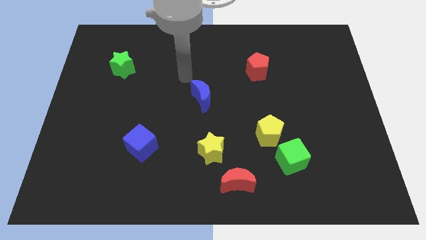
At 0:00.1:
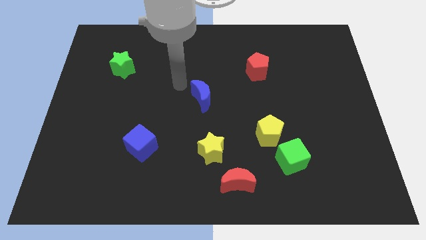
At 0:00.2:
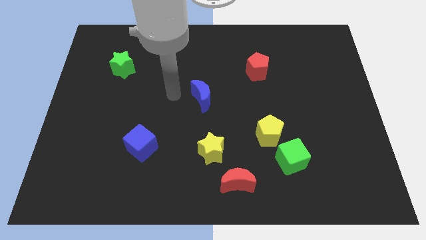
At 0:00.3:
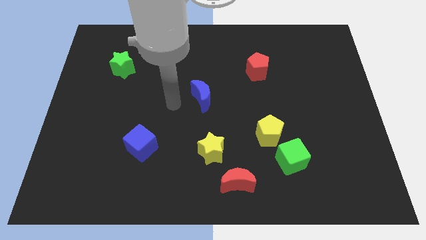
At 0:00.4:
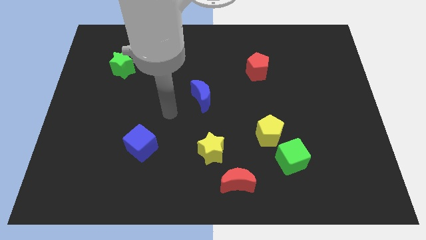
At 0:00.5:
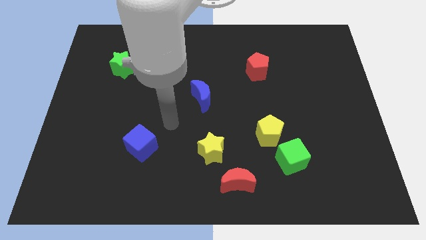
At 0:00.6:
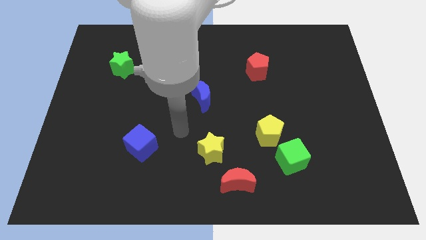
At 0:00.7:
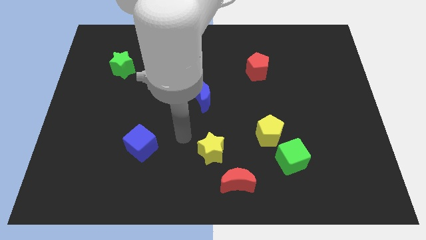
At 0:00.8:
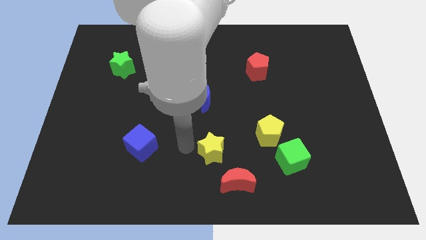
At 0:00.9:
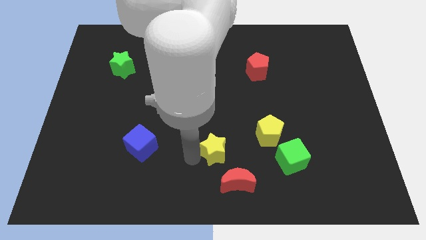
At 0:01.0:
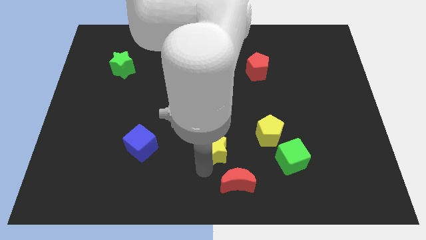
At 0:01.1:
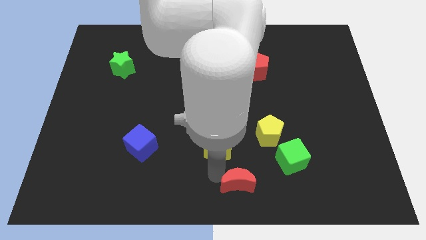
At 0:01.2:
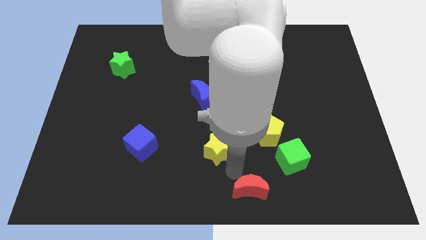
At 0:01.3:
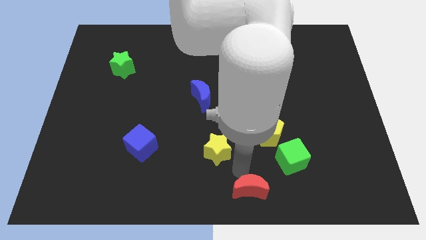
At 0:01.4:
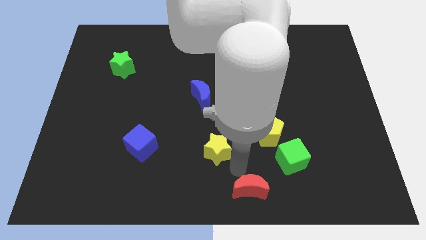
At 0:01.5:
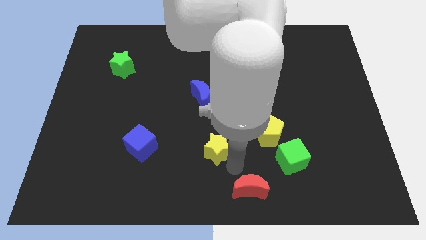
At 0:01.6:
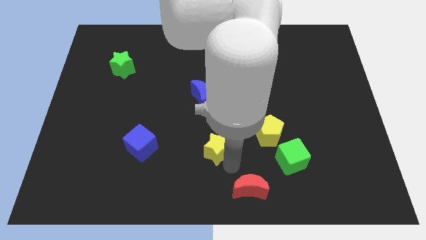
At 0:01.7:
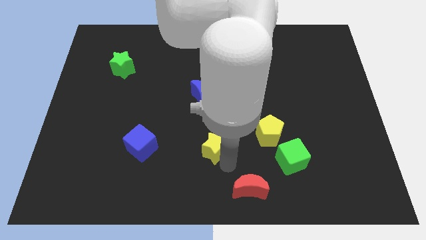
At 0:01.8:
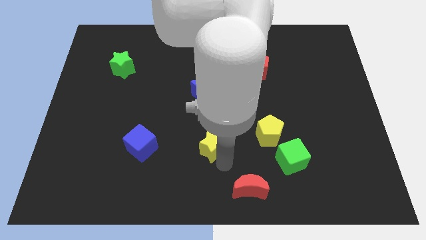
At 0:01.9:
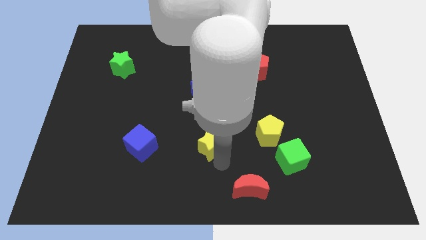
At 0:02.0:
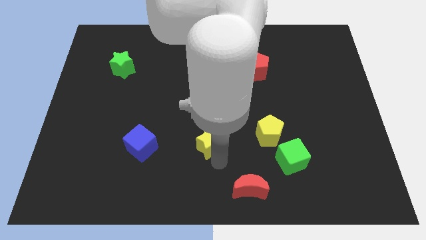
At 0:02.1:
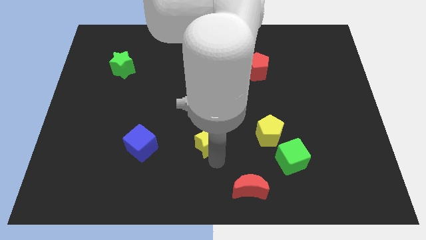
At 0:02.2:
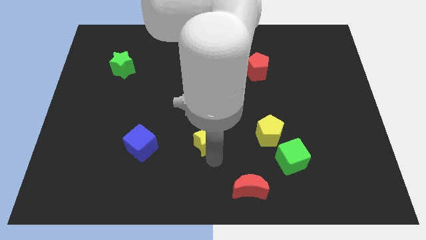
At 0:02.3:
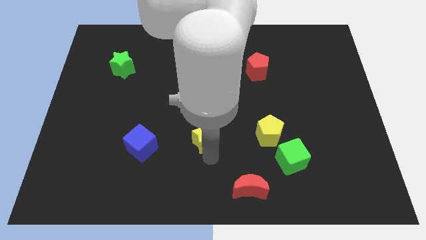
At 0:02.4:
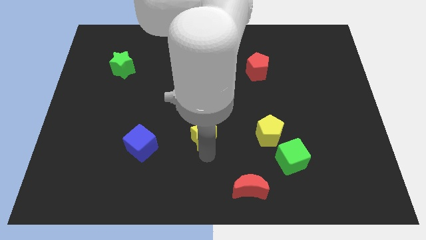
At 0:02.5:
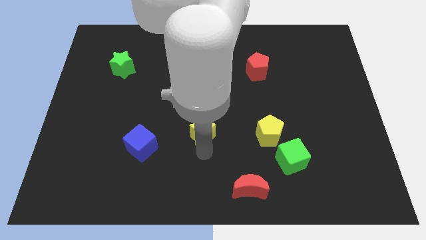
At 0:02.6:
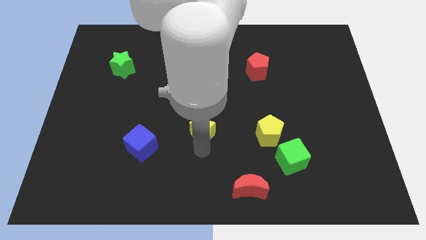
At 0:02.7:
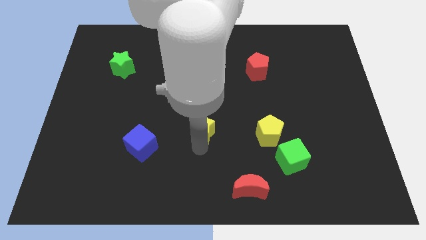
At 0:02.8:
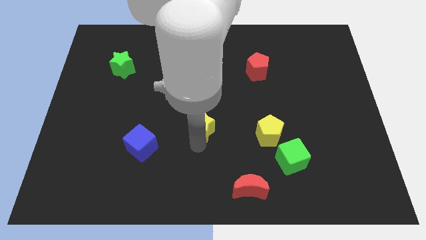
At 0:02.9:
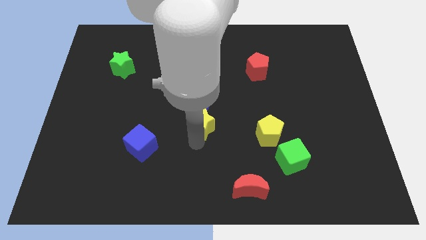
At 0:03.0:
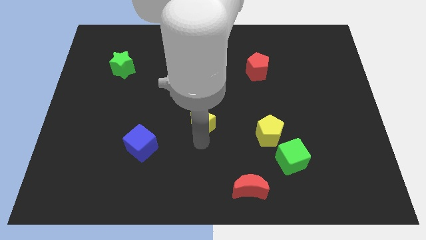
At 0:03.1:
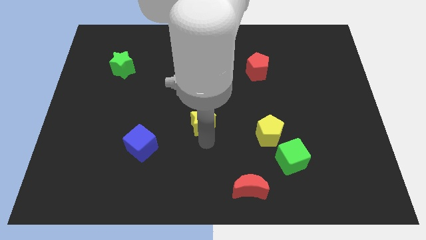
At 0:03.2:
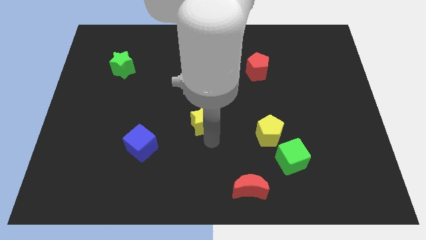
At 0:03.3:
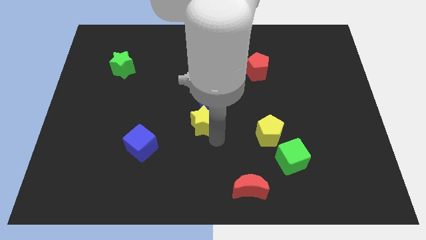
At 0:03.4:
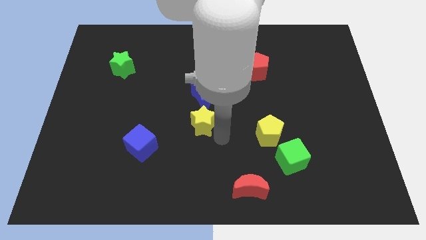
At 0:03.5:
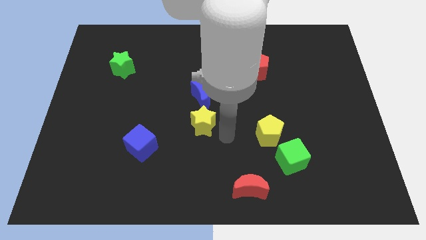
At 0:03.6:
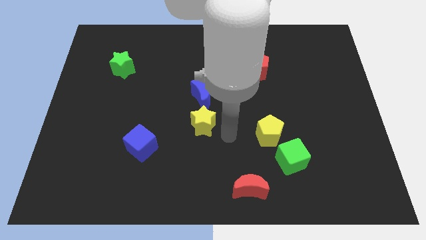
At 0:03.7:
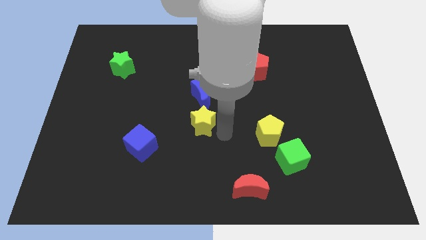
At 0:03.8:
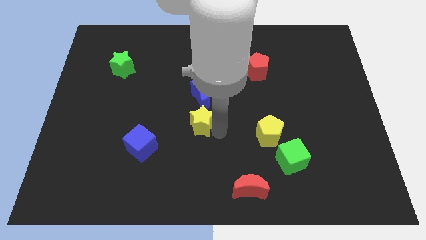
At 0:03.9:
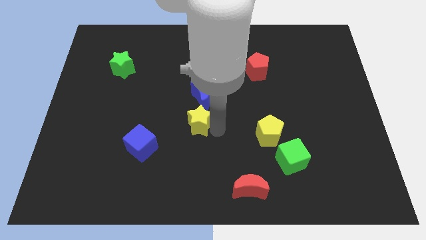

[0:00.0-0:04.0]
slide the yellow star a bit diagonally up and to the left

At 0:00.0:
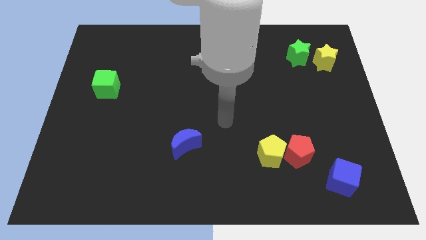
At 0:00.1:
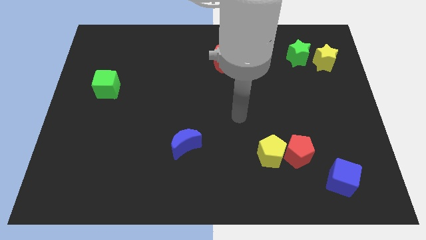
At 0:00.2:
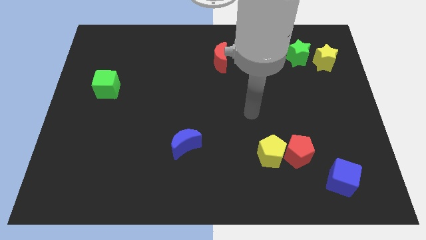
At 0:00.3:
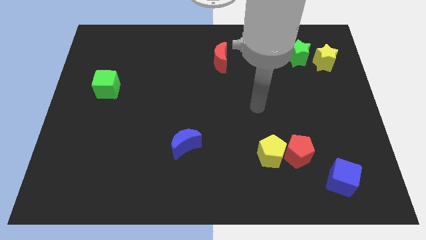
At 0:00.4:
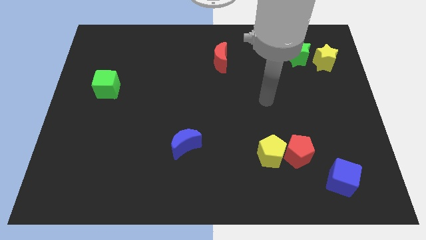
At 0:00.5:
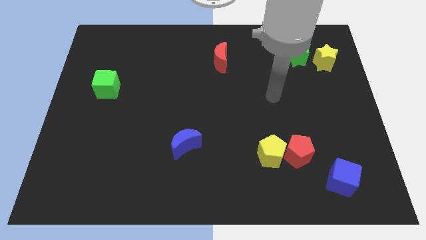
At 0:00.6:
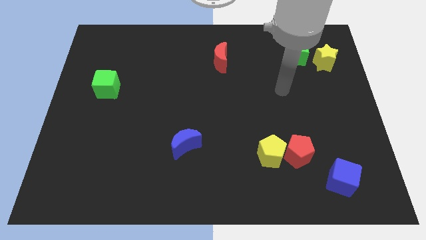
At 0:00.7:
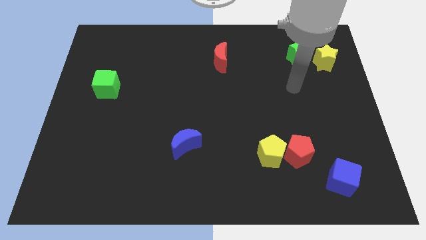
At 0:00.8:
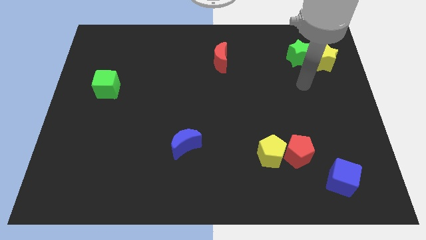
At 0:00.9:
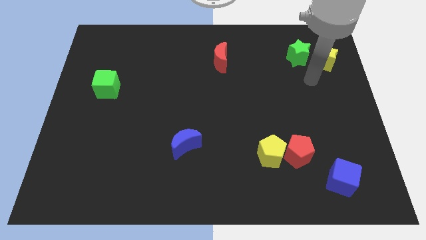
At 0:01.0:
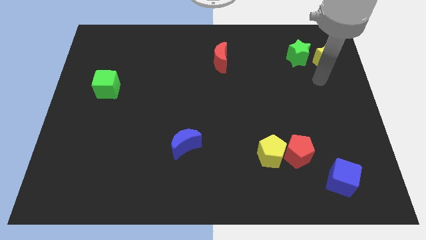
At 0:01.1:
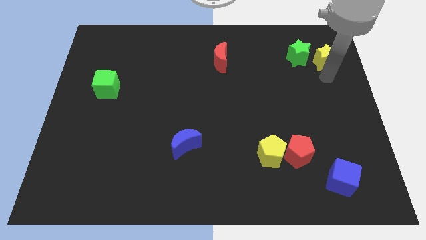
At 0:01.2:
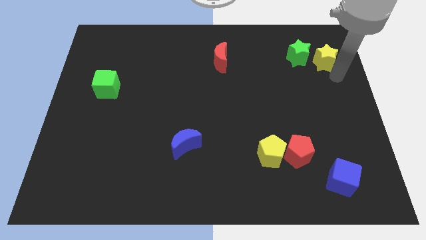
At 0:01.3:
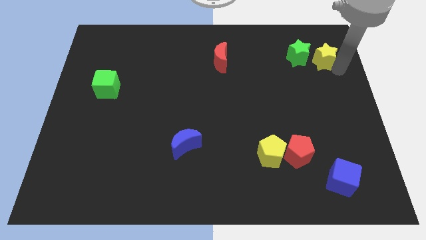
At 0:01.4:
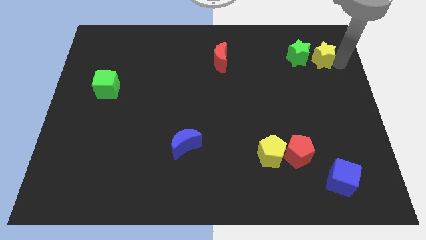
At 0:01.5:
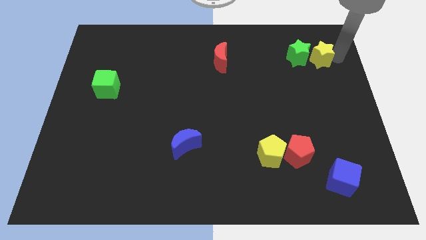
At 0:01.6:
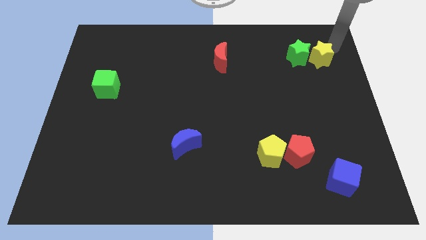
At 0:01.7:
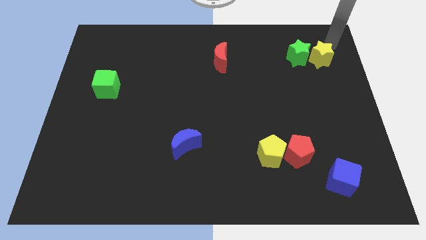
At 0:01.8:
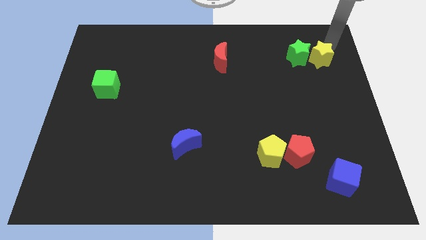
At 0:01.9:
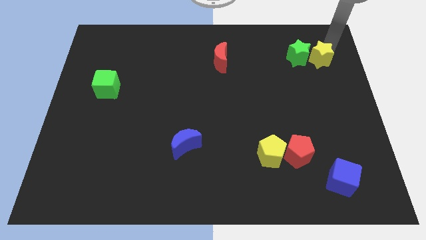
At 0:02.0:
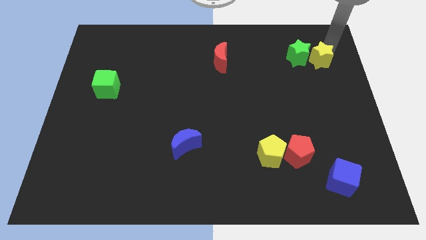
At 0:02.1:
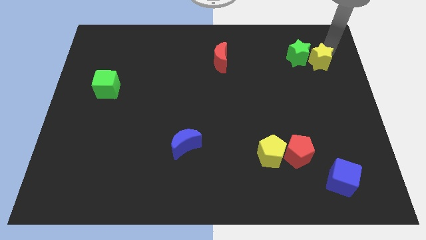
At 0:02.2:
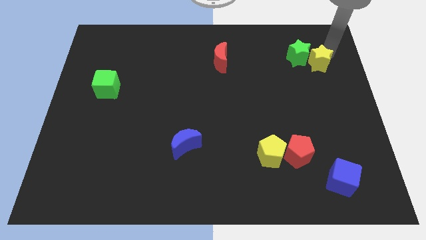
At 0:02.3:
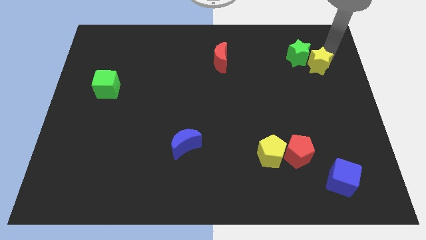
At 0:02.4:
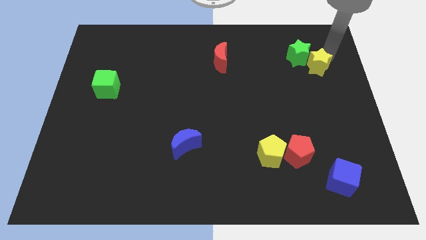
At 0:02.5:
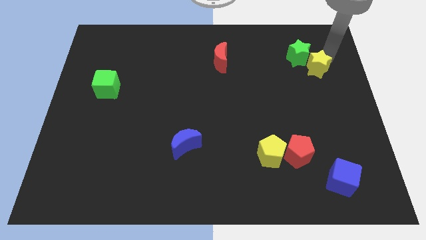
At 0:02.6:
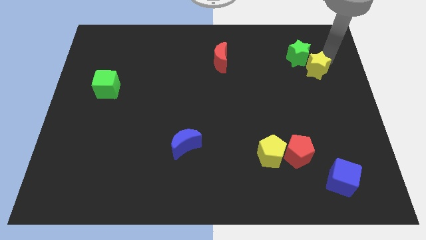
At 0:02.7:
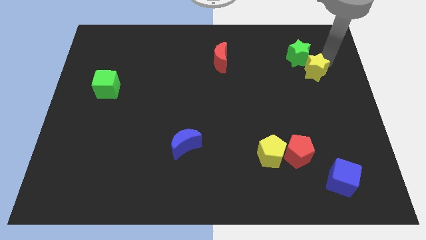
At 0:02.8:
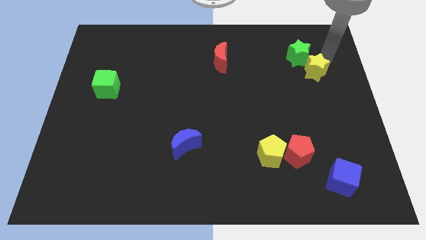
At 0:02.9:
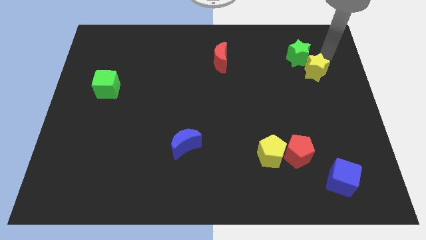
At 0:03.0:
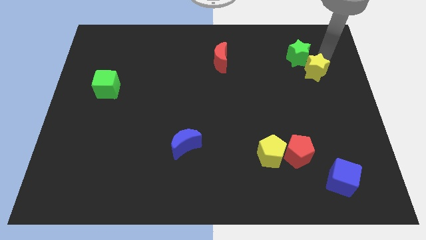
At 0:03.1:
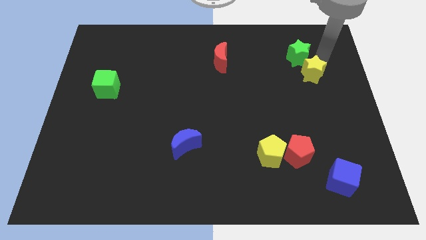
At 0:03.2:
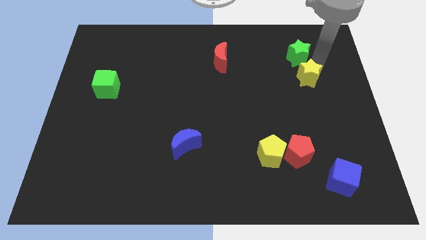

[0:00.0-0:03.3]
slightly slide the yellow star downwards and to the left

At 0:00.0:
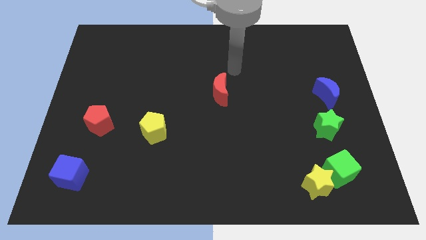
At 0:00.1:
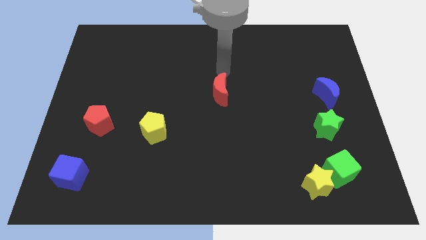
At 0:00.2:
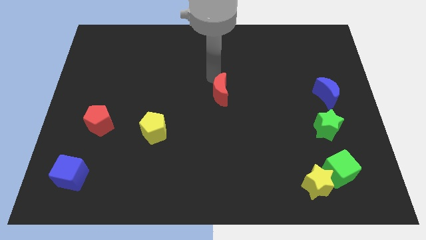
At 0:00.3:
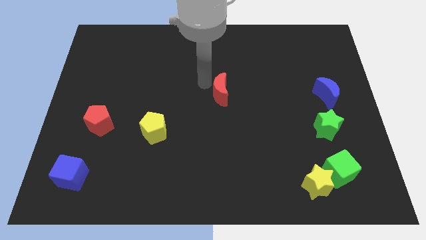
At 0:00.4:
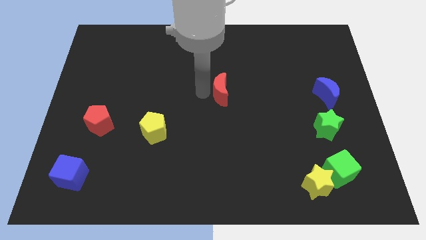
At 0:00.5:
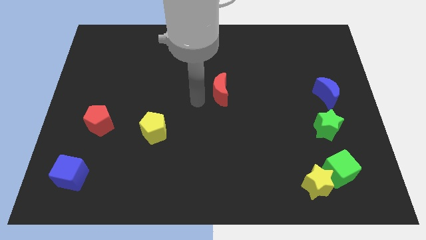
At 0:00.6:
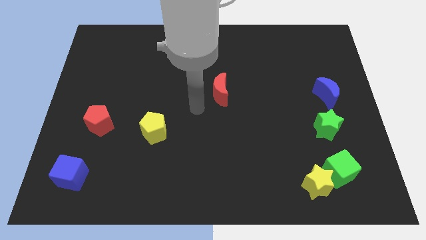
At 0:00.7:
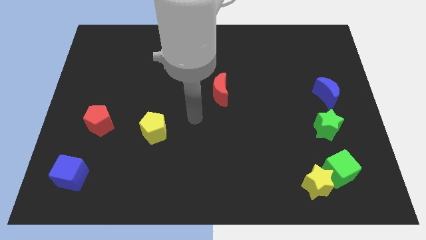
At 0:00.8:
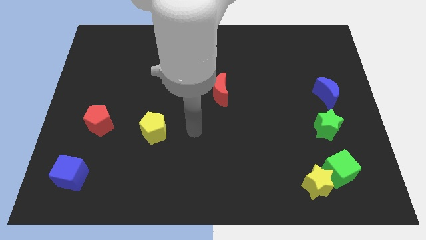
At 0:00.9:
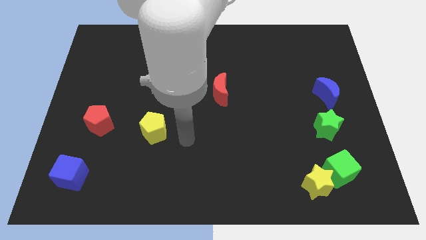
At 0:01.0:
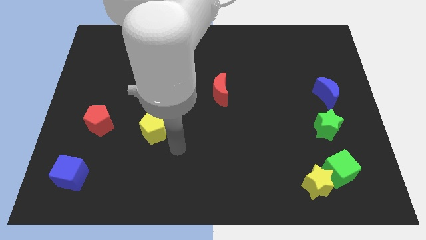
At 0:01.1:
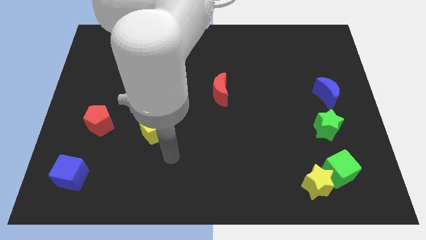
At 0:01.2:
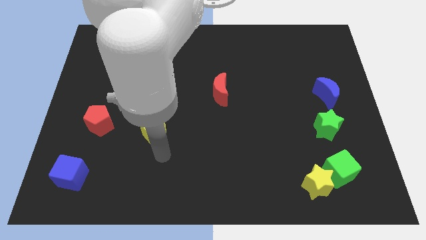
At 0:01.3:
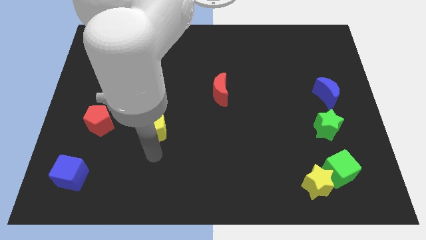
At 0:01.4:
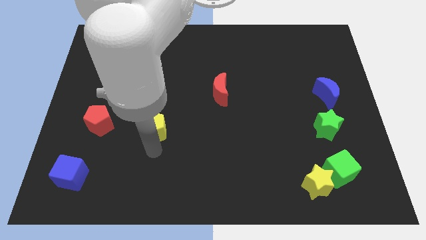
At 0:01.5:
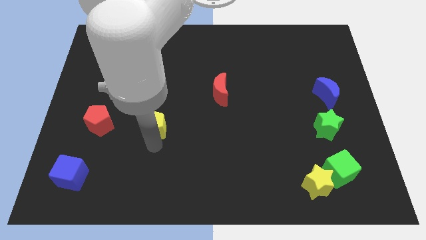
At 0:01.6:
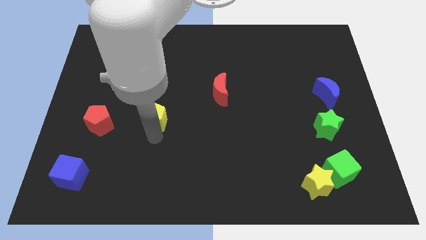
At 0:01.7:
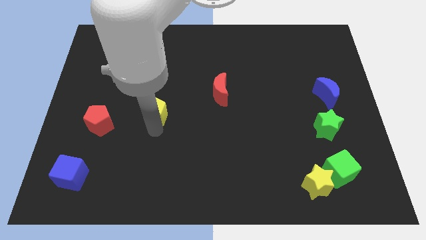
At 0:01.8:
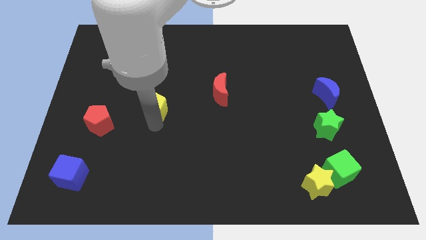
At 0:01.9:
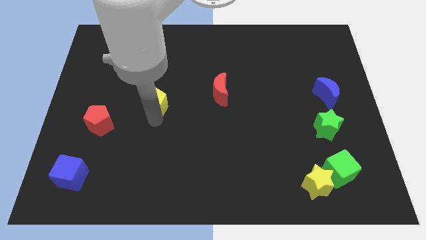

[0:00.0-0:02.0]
move the yellow pentagon upwards a bit
